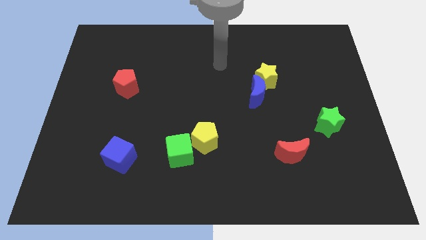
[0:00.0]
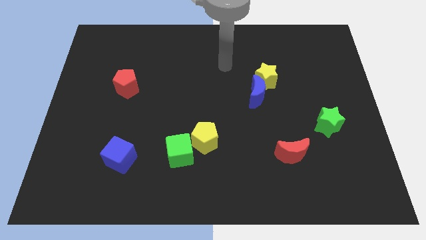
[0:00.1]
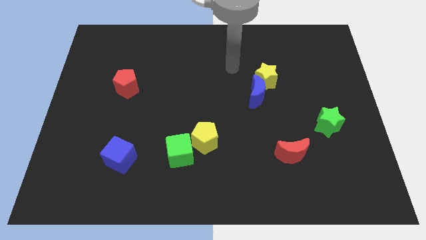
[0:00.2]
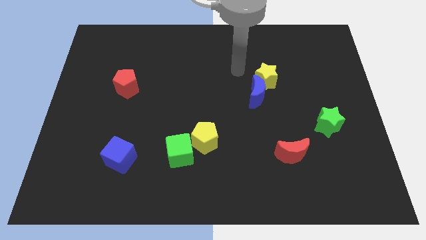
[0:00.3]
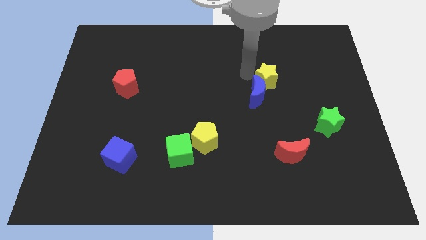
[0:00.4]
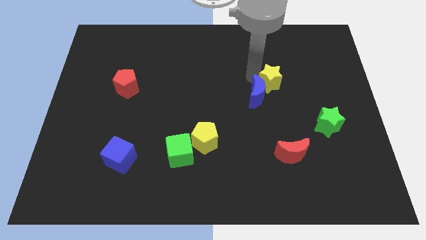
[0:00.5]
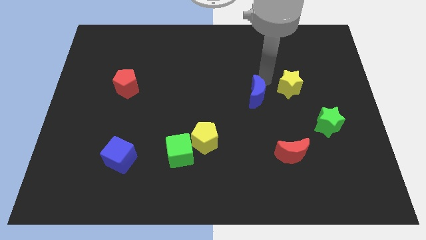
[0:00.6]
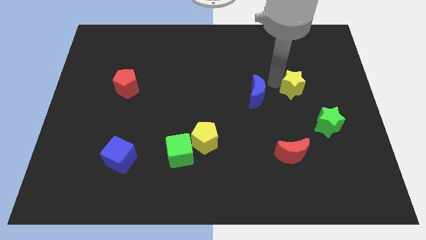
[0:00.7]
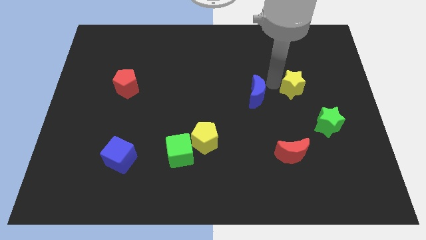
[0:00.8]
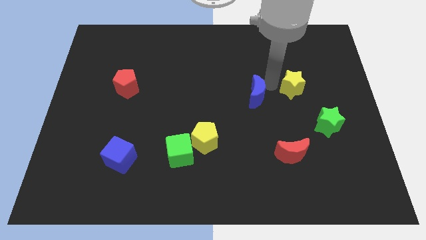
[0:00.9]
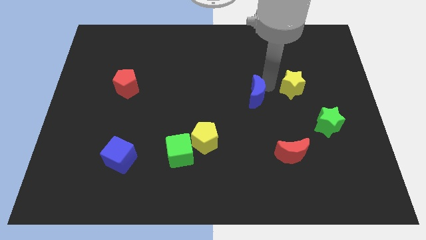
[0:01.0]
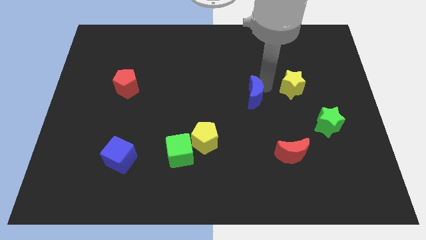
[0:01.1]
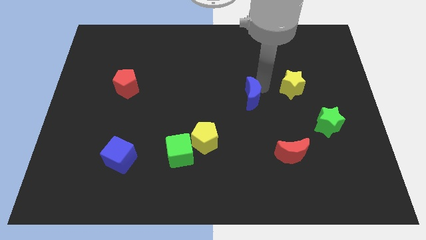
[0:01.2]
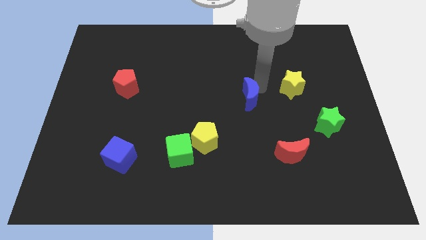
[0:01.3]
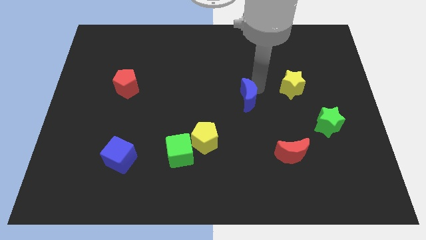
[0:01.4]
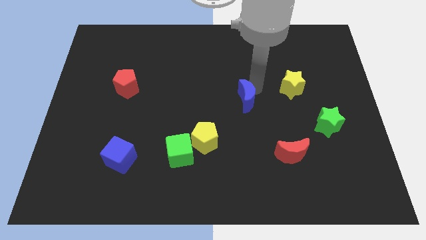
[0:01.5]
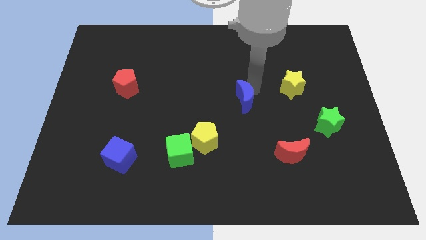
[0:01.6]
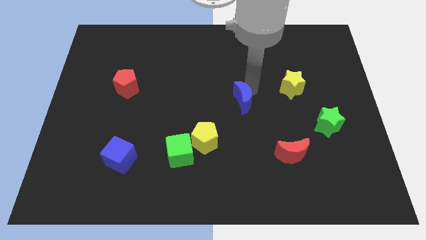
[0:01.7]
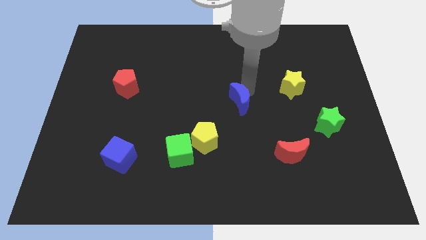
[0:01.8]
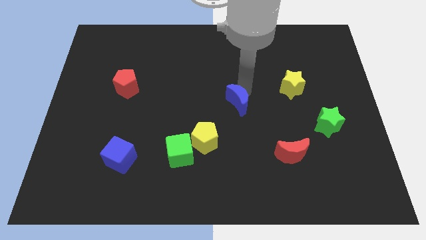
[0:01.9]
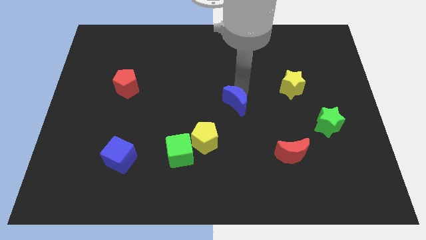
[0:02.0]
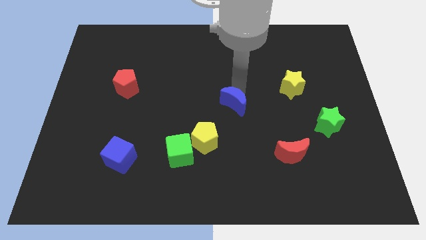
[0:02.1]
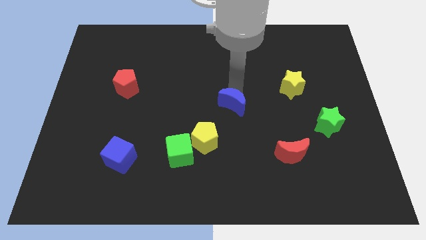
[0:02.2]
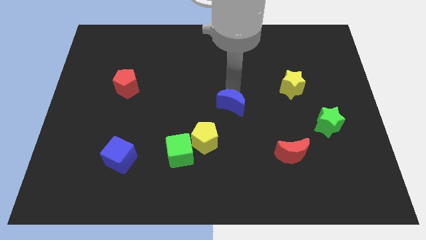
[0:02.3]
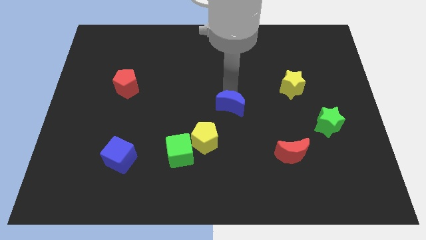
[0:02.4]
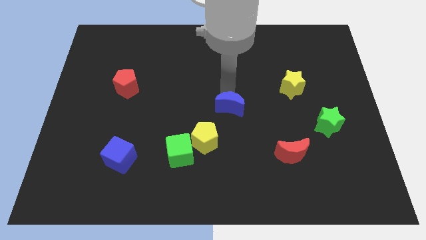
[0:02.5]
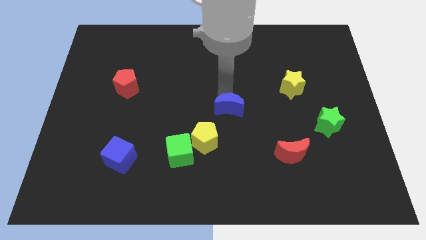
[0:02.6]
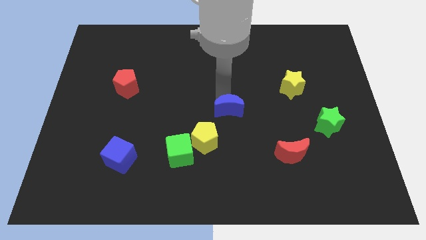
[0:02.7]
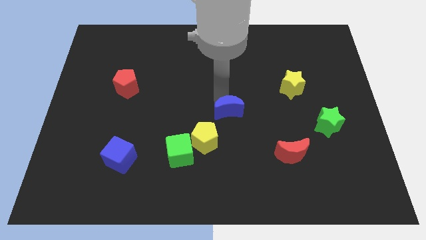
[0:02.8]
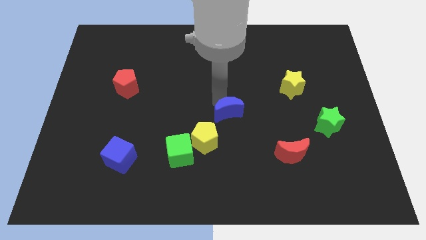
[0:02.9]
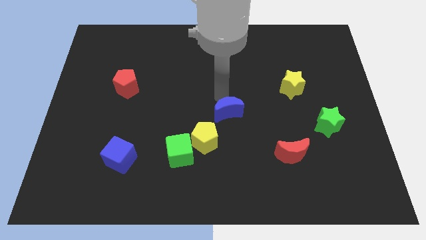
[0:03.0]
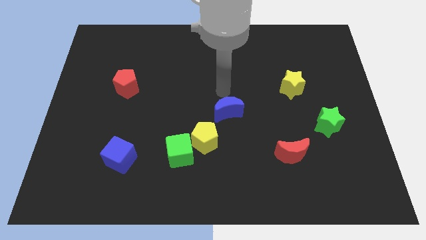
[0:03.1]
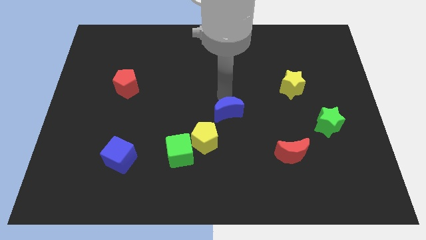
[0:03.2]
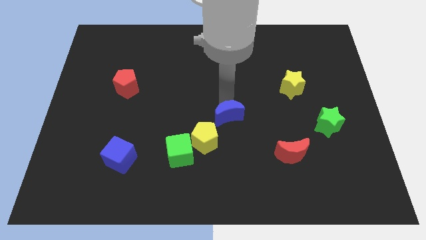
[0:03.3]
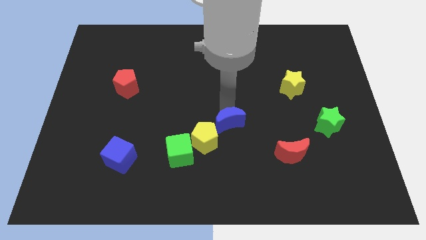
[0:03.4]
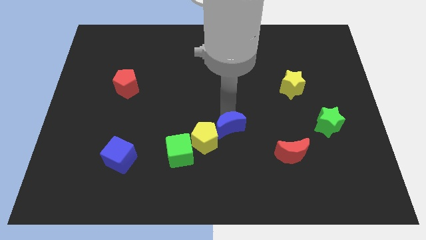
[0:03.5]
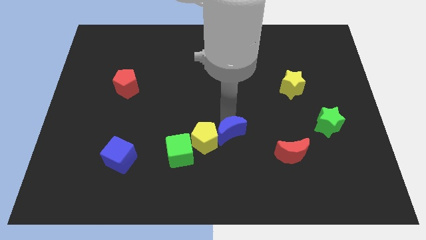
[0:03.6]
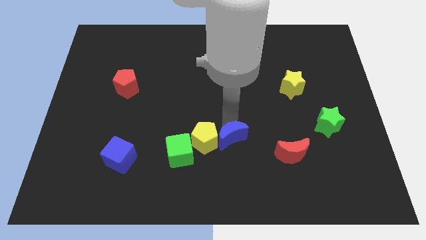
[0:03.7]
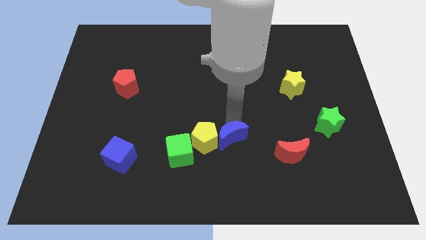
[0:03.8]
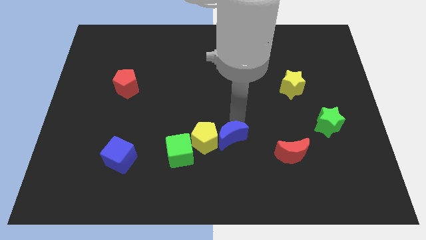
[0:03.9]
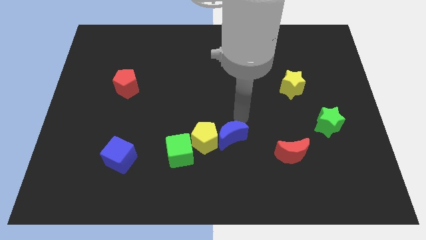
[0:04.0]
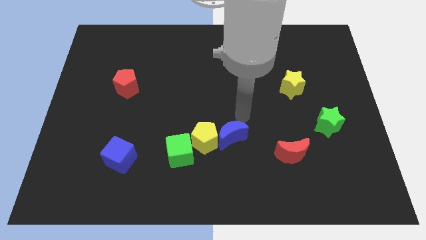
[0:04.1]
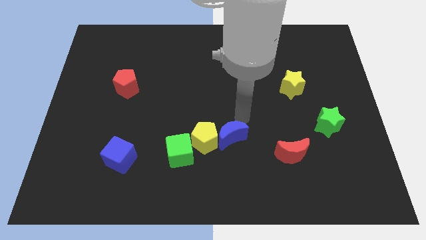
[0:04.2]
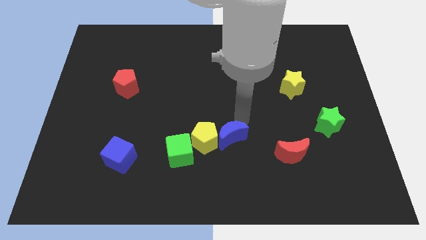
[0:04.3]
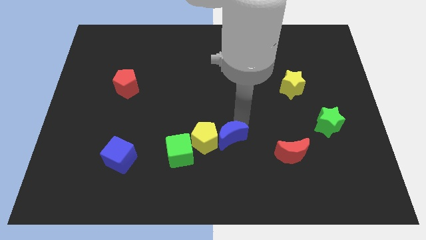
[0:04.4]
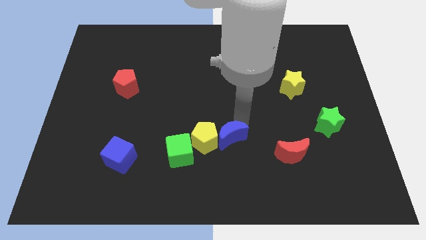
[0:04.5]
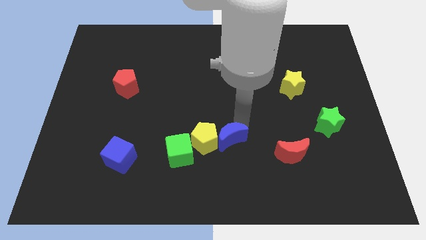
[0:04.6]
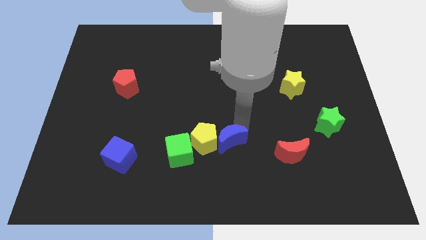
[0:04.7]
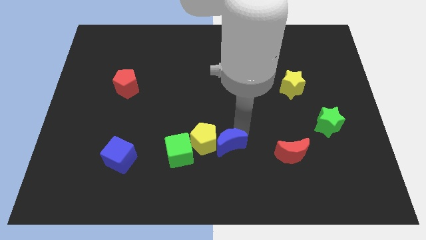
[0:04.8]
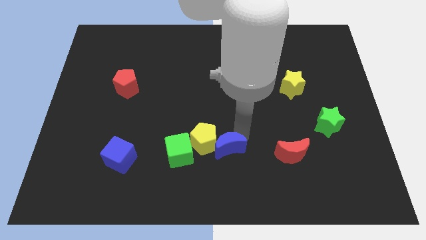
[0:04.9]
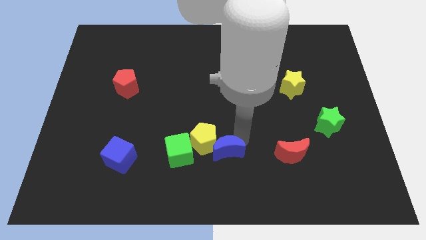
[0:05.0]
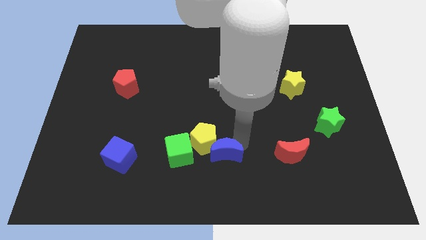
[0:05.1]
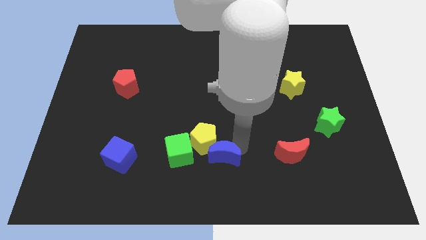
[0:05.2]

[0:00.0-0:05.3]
put the blue moon to the bottom of the yellow pentagon

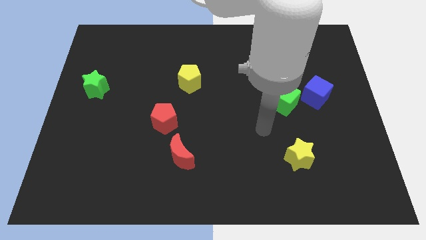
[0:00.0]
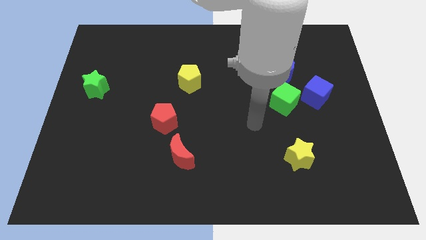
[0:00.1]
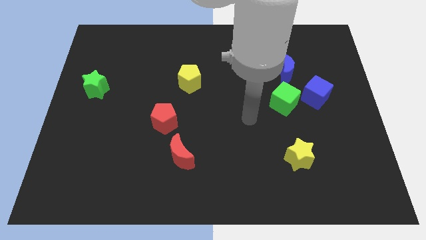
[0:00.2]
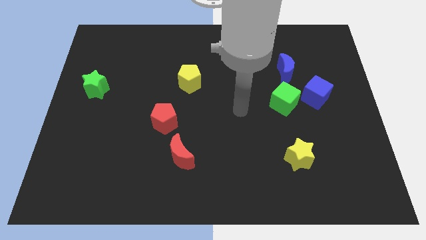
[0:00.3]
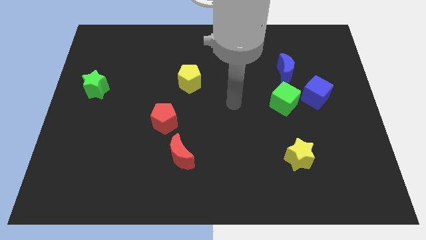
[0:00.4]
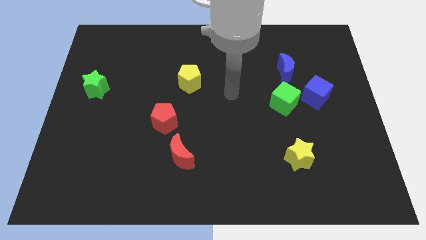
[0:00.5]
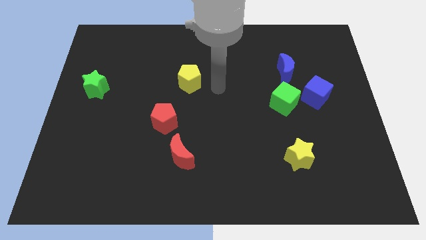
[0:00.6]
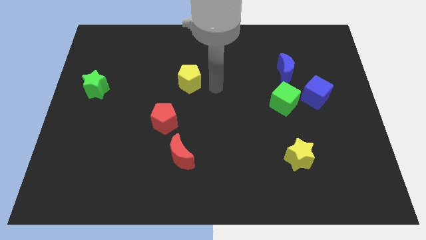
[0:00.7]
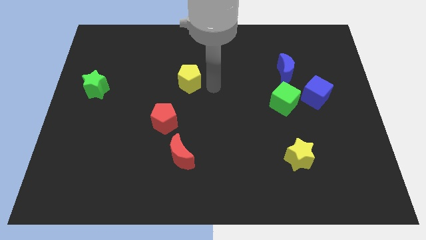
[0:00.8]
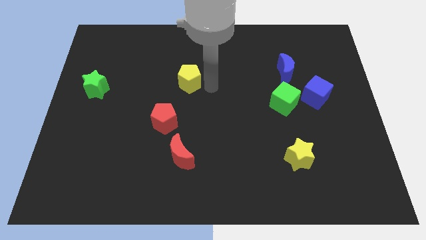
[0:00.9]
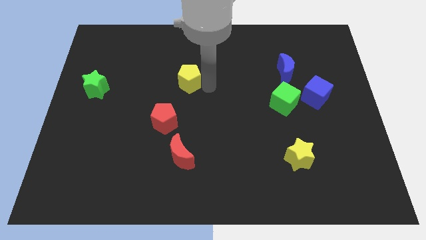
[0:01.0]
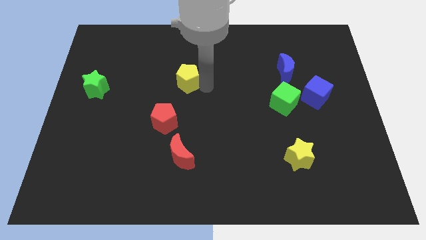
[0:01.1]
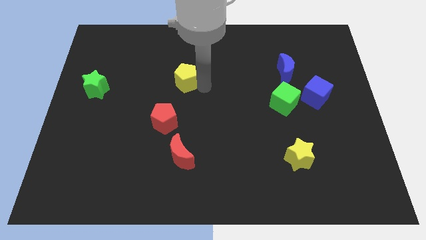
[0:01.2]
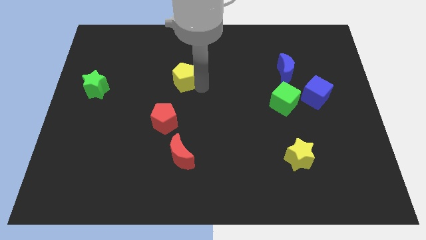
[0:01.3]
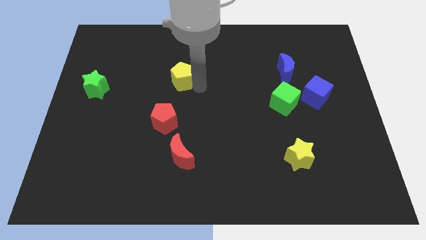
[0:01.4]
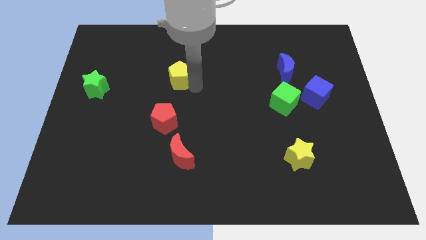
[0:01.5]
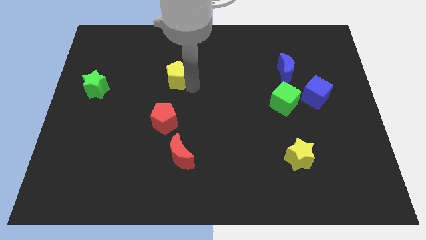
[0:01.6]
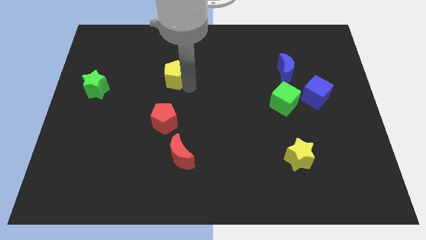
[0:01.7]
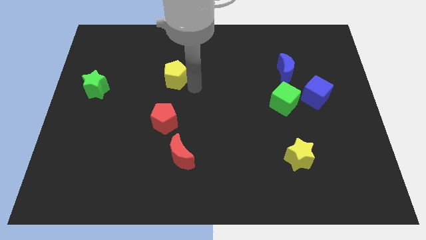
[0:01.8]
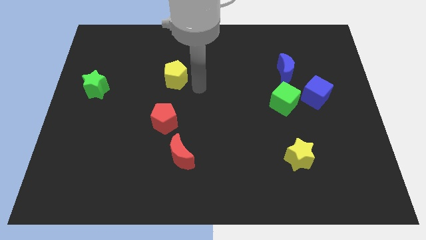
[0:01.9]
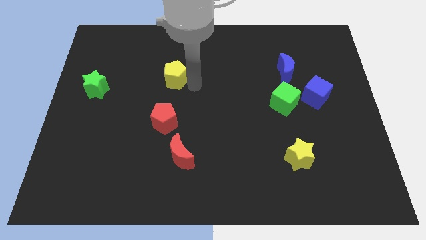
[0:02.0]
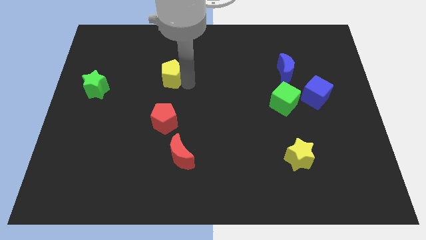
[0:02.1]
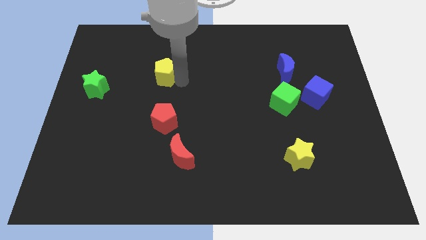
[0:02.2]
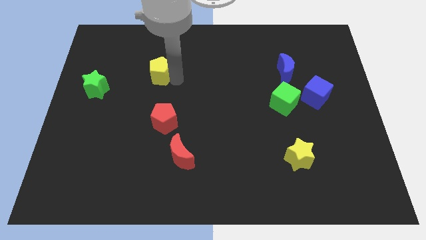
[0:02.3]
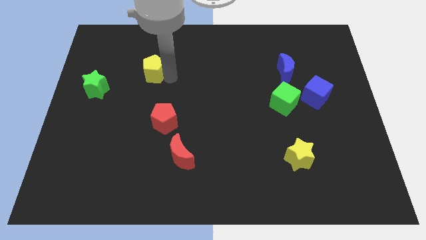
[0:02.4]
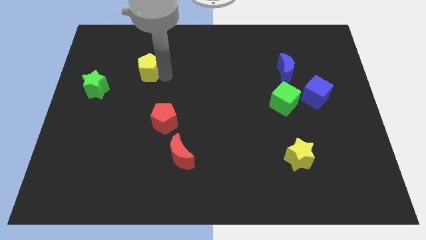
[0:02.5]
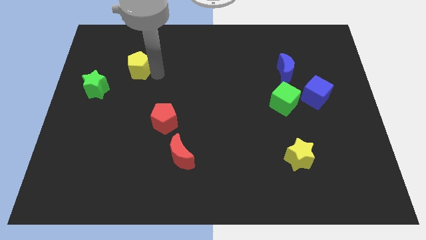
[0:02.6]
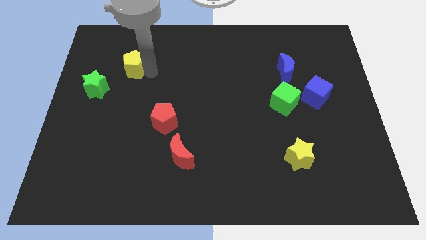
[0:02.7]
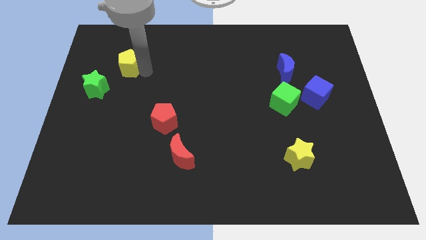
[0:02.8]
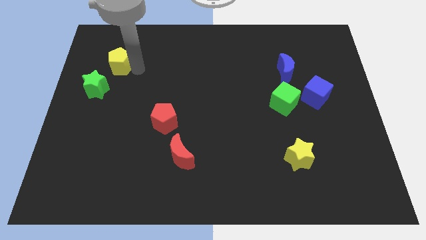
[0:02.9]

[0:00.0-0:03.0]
move the yellow pentagon to the top of the green star
